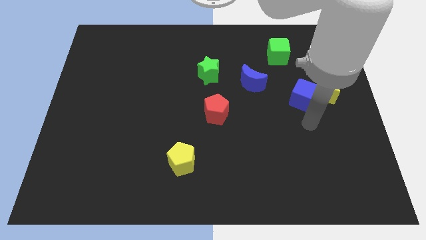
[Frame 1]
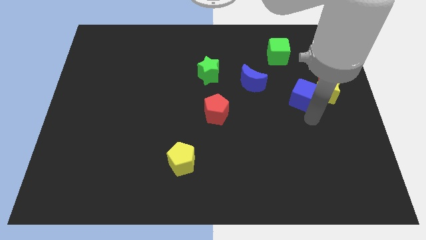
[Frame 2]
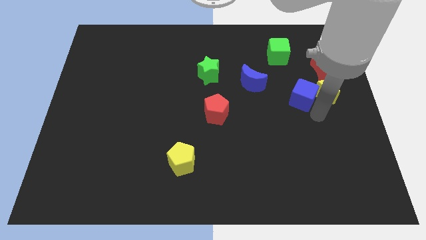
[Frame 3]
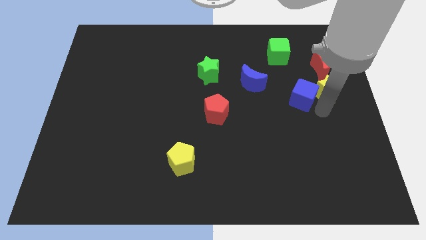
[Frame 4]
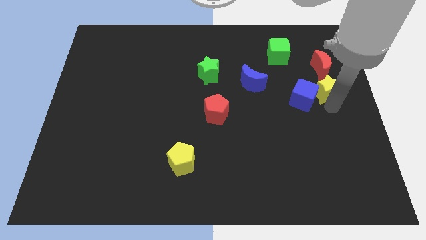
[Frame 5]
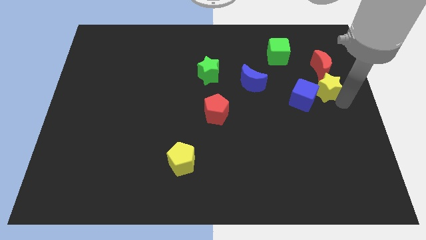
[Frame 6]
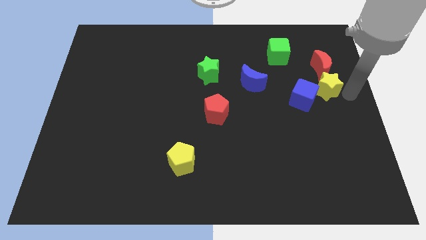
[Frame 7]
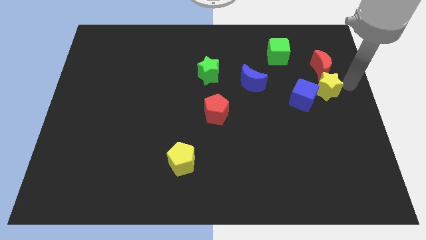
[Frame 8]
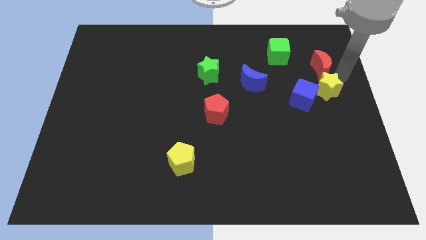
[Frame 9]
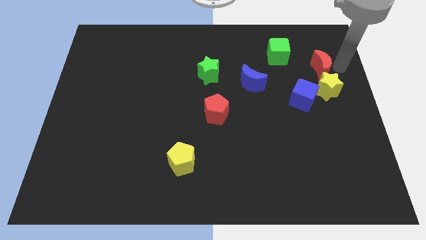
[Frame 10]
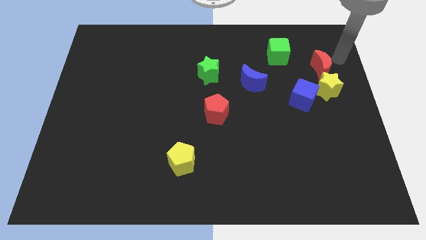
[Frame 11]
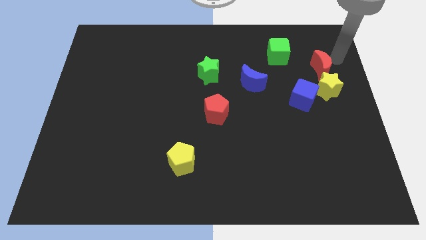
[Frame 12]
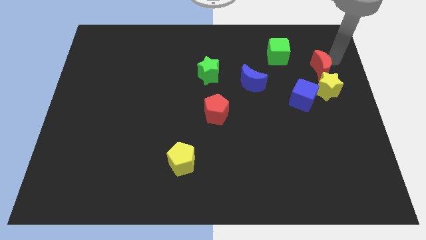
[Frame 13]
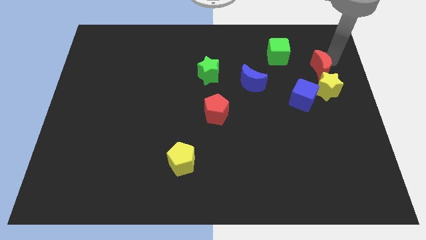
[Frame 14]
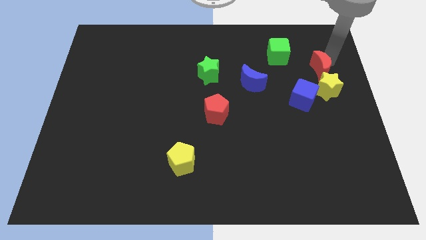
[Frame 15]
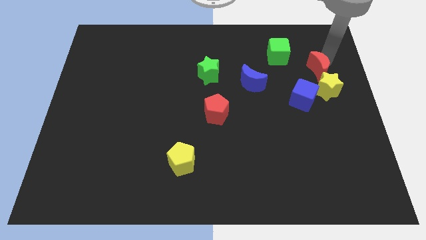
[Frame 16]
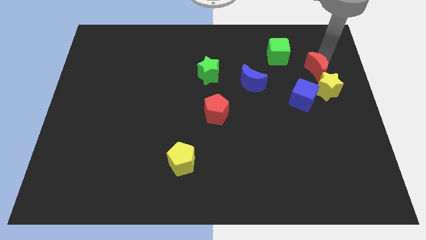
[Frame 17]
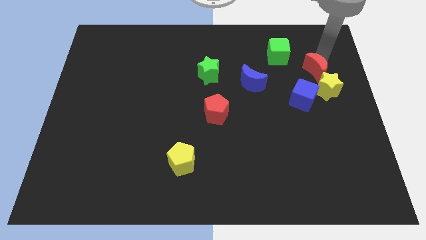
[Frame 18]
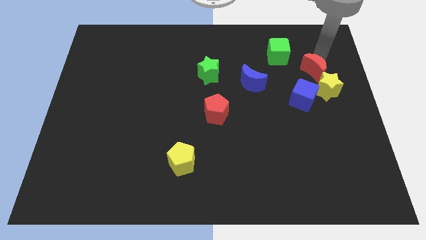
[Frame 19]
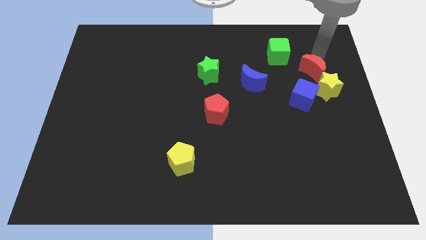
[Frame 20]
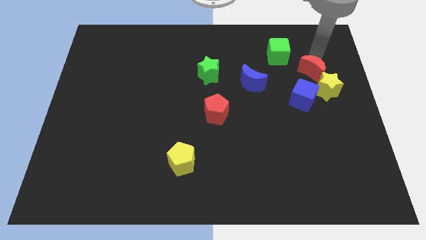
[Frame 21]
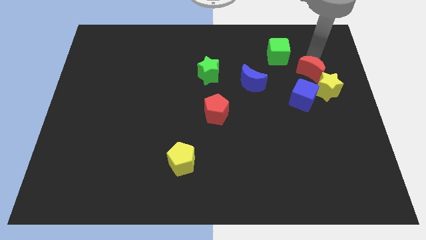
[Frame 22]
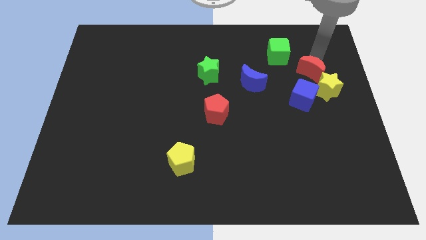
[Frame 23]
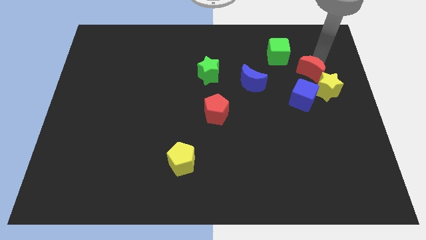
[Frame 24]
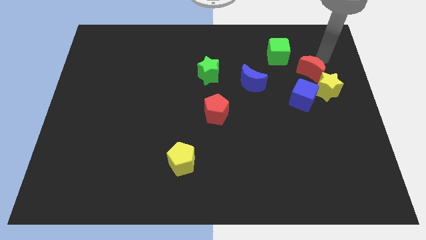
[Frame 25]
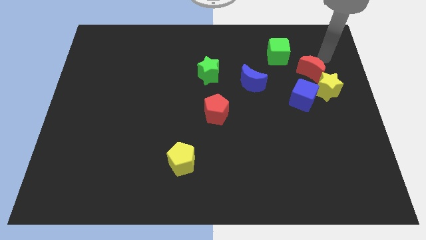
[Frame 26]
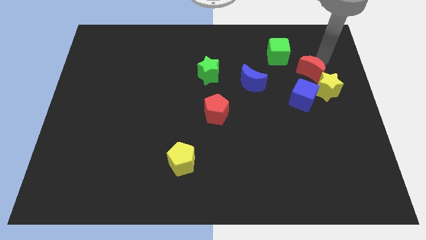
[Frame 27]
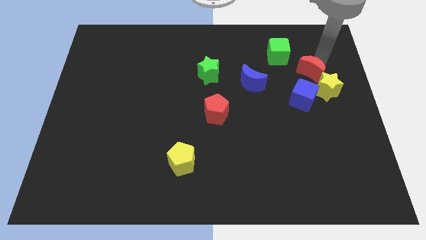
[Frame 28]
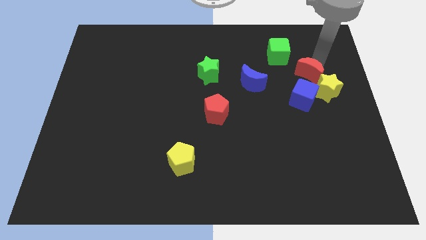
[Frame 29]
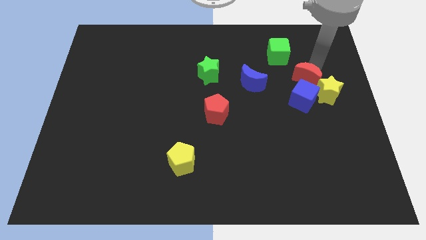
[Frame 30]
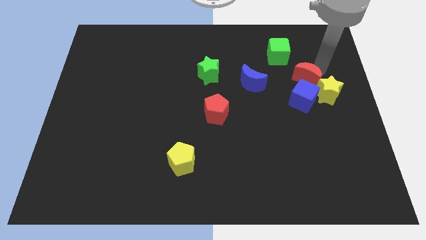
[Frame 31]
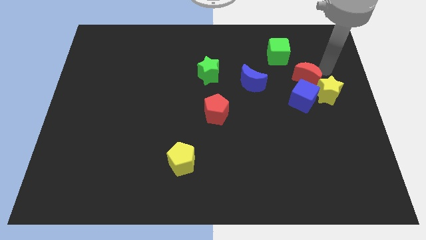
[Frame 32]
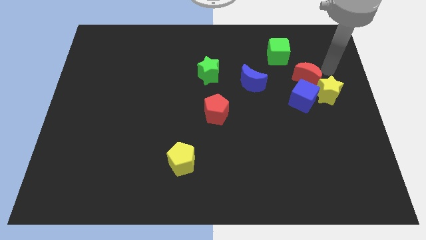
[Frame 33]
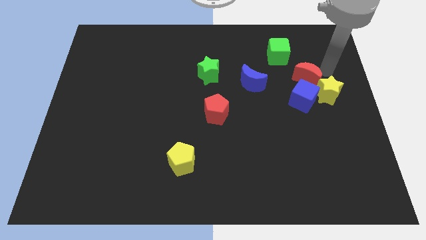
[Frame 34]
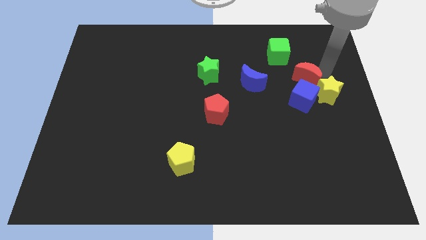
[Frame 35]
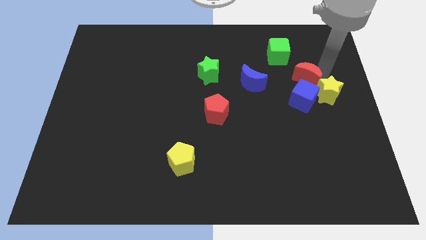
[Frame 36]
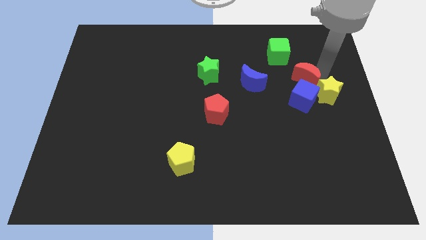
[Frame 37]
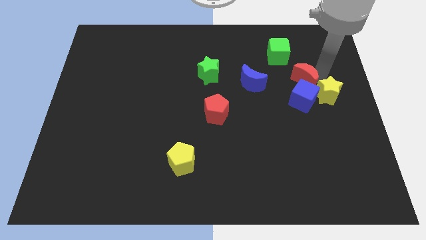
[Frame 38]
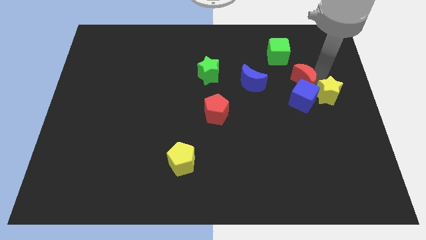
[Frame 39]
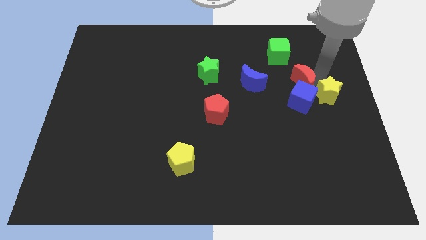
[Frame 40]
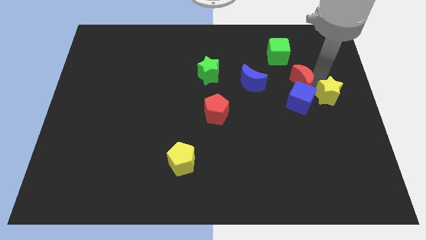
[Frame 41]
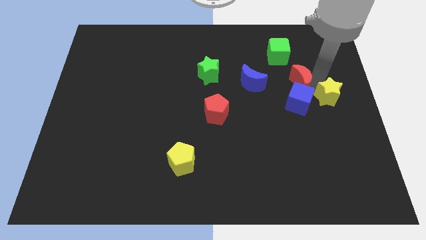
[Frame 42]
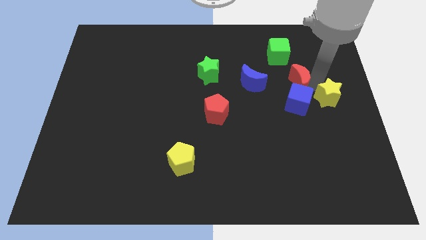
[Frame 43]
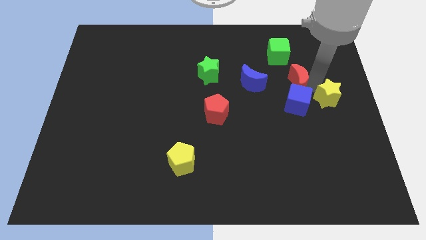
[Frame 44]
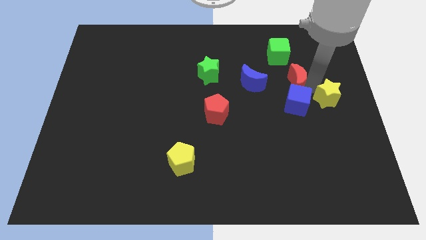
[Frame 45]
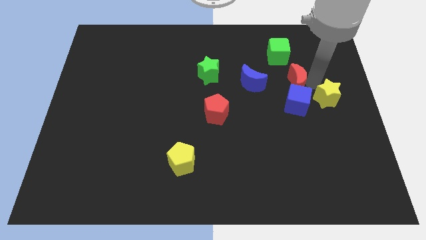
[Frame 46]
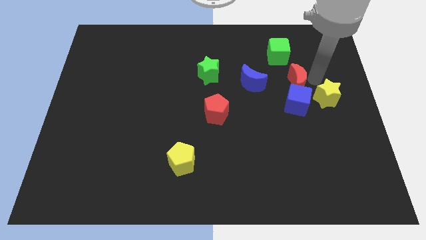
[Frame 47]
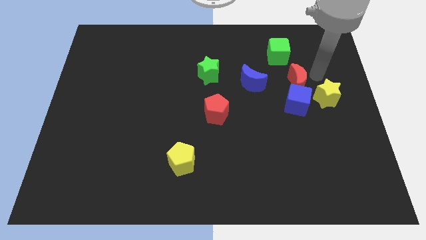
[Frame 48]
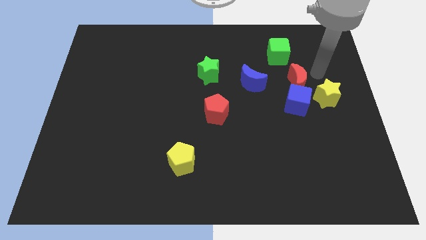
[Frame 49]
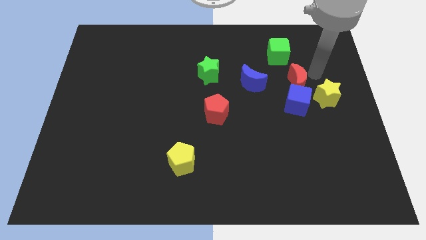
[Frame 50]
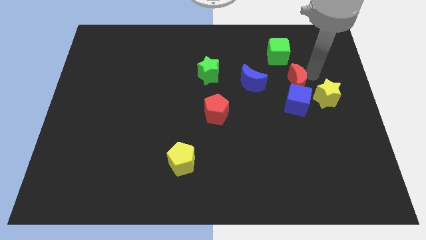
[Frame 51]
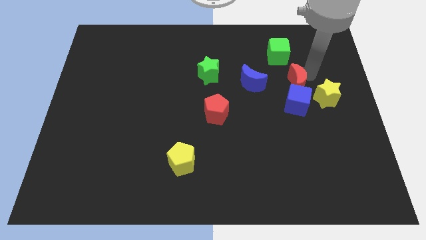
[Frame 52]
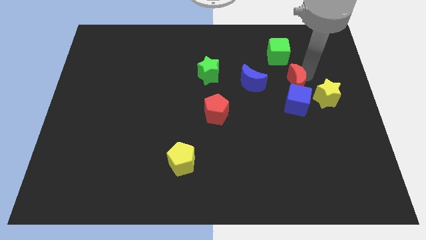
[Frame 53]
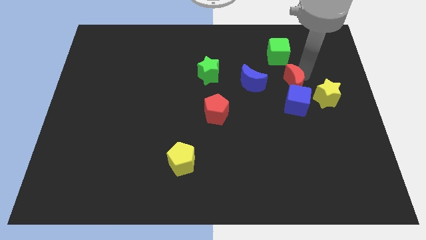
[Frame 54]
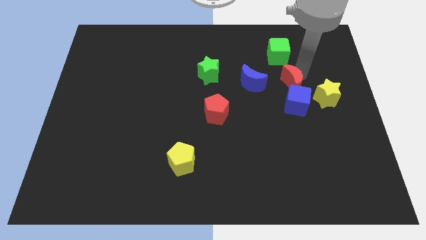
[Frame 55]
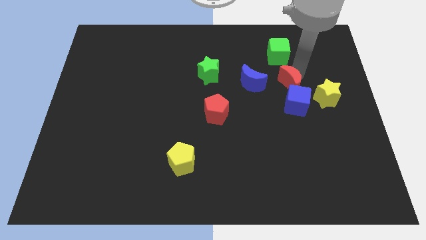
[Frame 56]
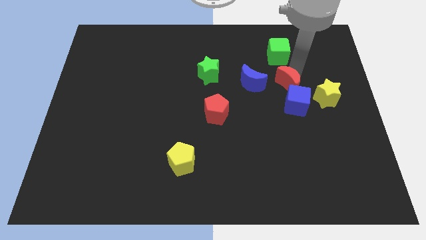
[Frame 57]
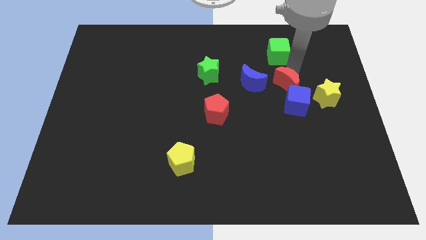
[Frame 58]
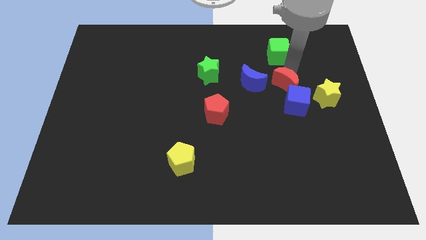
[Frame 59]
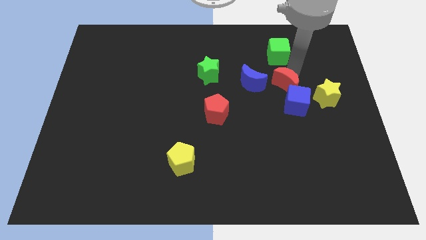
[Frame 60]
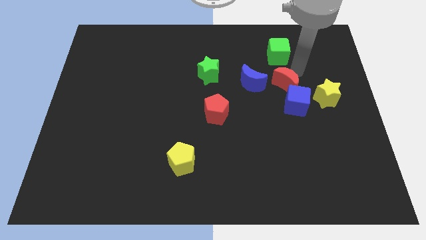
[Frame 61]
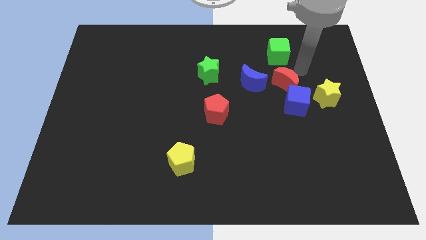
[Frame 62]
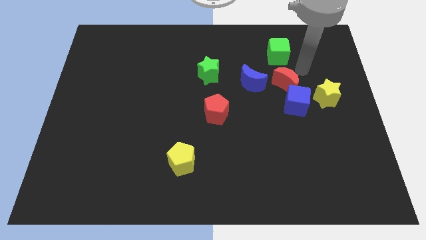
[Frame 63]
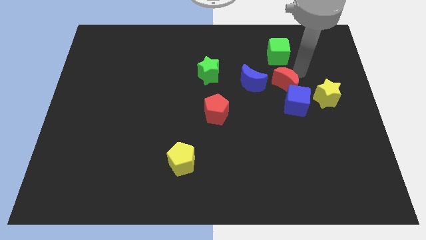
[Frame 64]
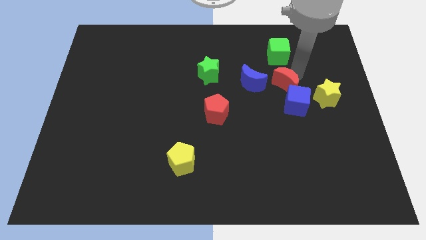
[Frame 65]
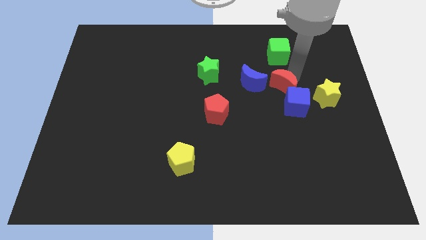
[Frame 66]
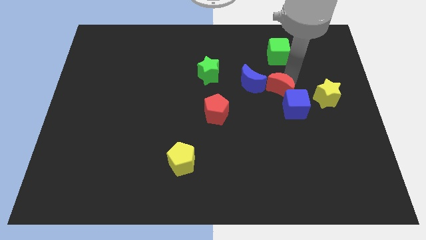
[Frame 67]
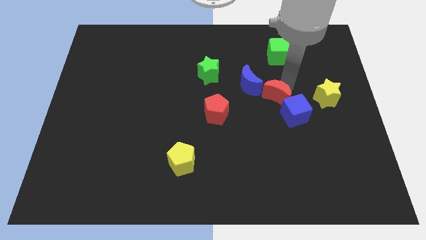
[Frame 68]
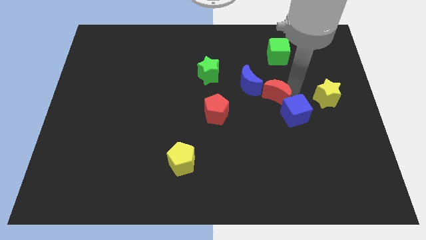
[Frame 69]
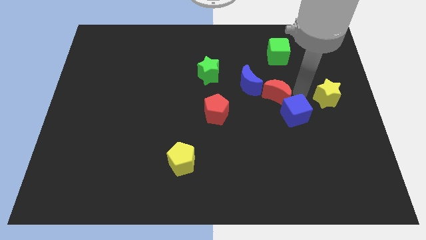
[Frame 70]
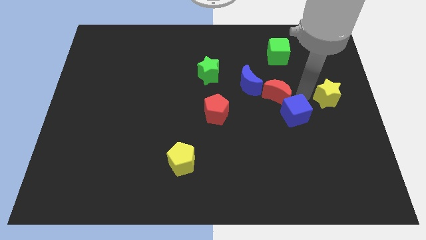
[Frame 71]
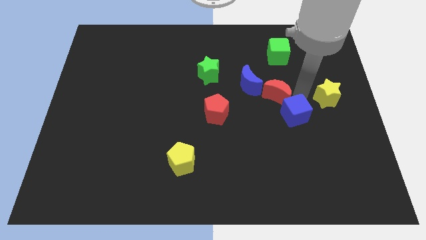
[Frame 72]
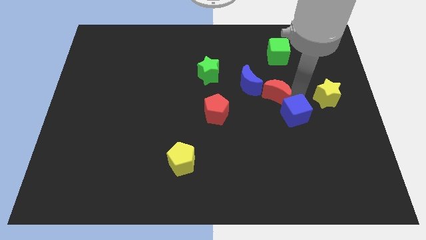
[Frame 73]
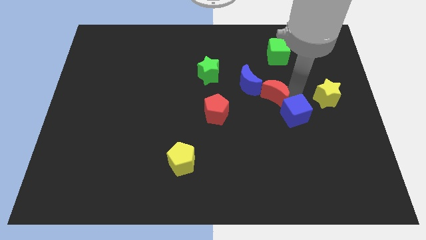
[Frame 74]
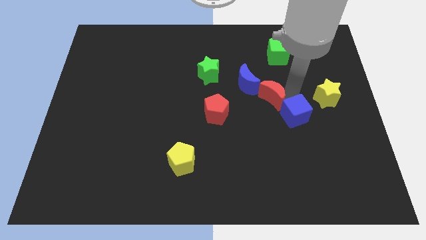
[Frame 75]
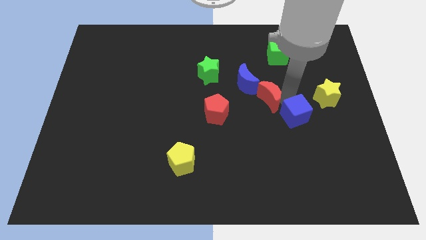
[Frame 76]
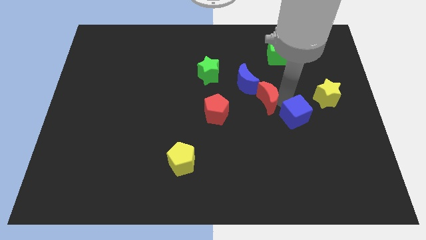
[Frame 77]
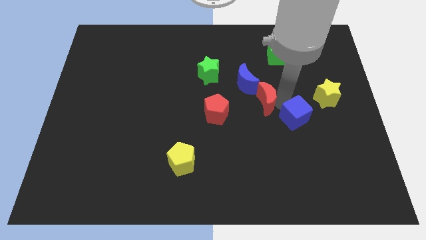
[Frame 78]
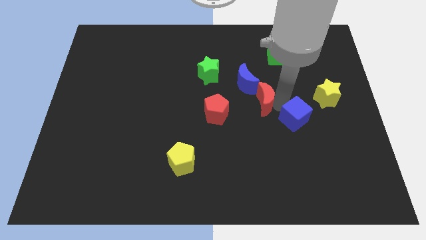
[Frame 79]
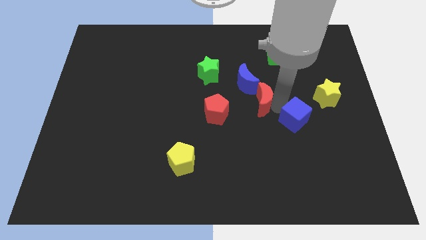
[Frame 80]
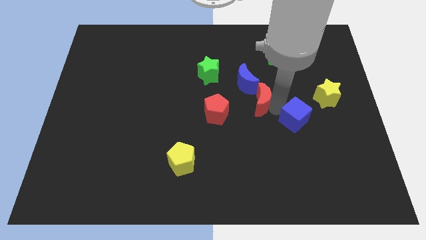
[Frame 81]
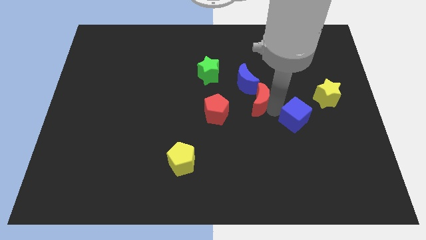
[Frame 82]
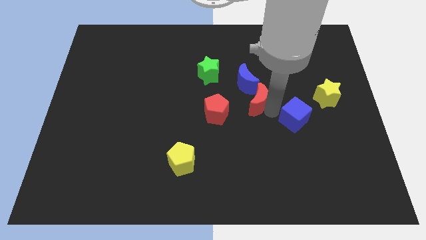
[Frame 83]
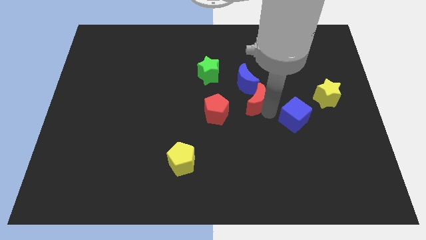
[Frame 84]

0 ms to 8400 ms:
move the red moon diagonally up and to the right of the red pentagon
